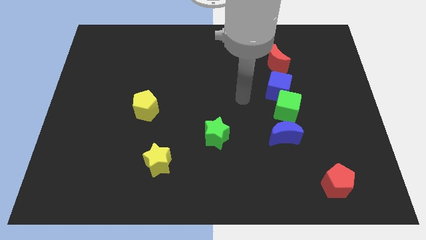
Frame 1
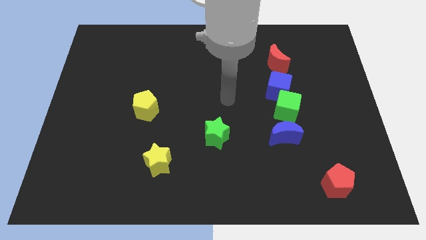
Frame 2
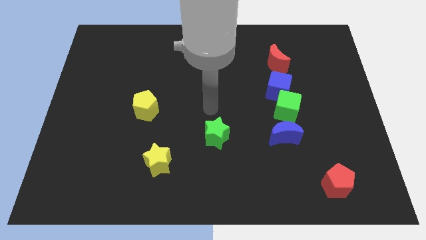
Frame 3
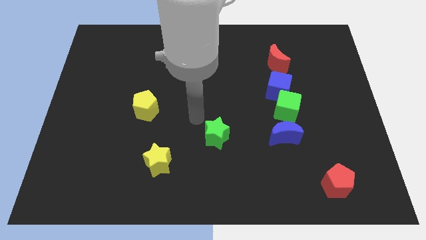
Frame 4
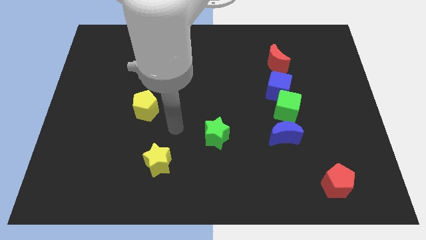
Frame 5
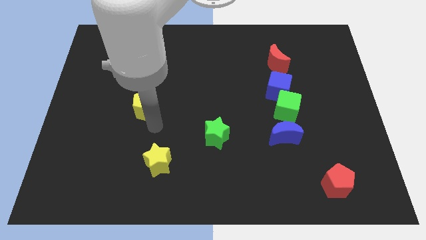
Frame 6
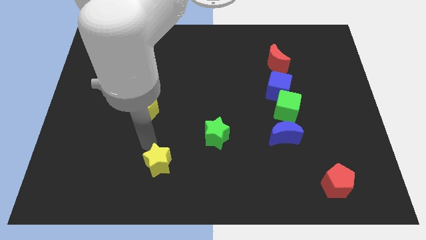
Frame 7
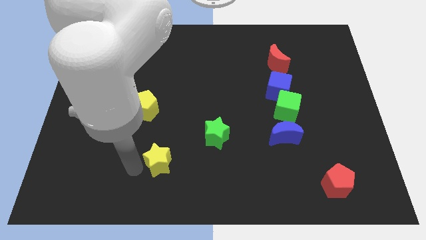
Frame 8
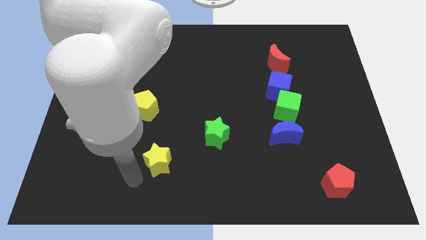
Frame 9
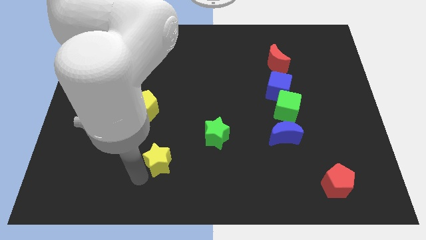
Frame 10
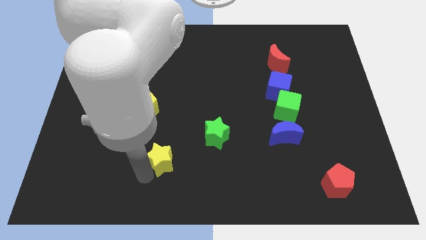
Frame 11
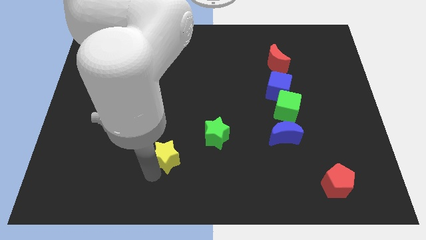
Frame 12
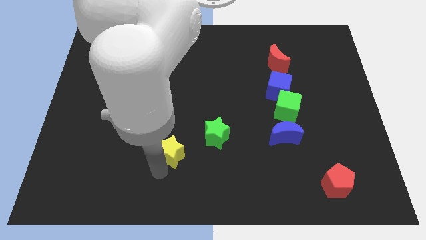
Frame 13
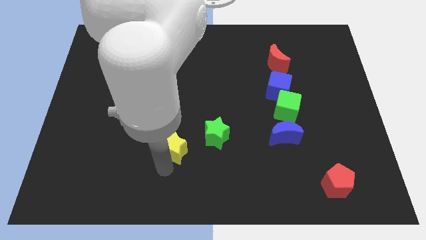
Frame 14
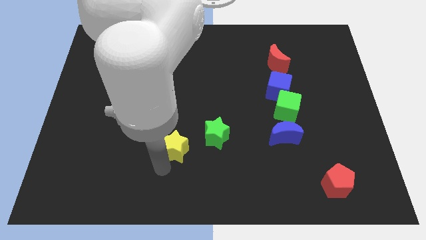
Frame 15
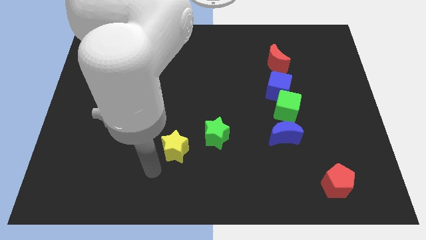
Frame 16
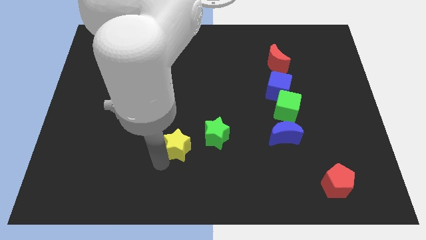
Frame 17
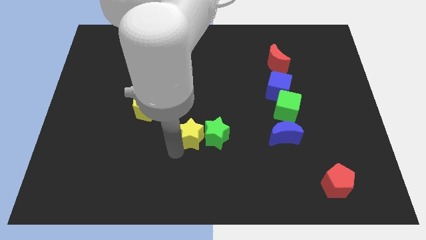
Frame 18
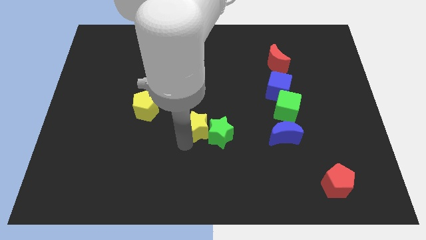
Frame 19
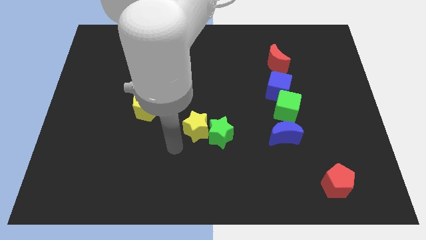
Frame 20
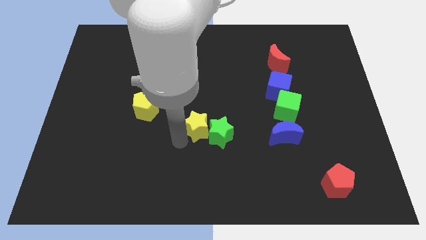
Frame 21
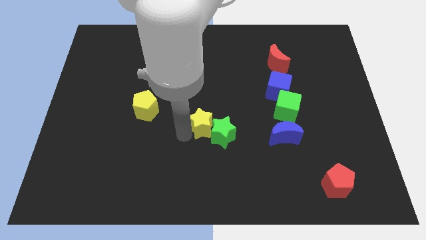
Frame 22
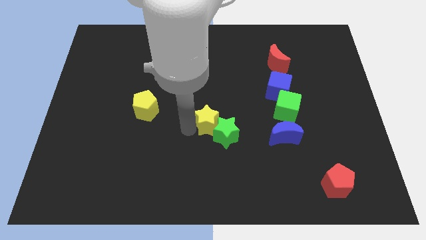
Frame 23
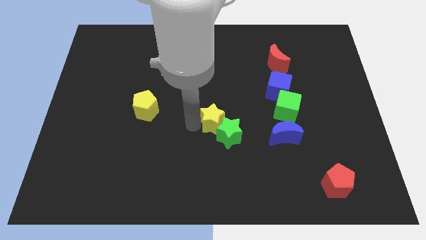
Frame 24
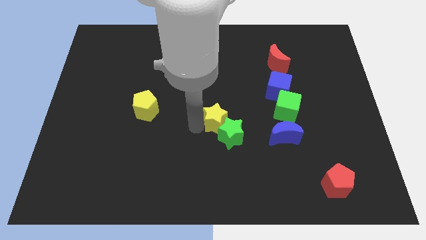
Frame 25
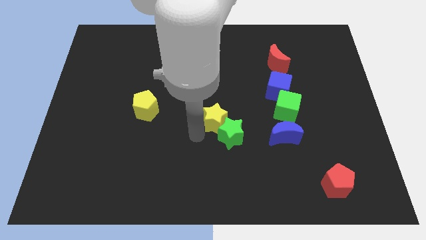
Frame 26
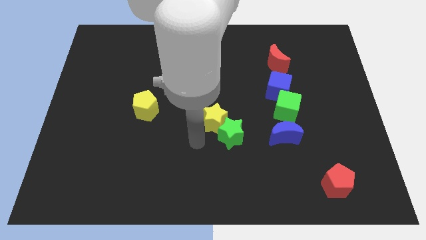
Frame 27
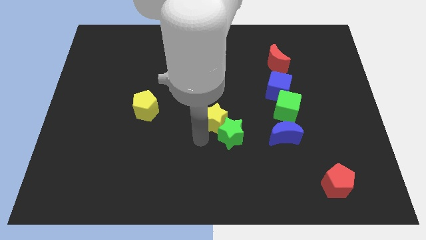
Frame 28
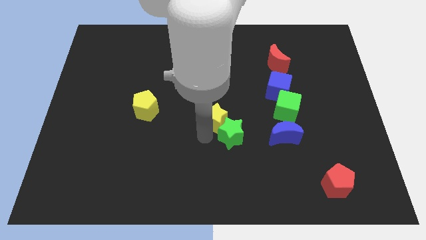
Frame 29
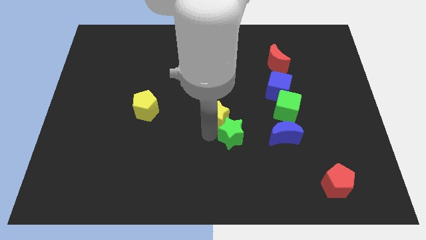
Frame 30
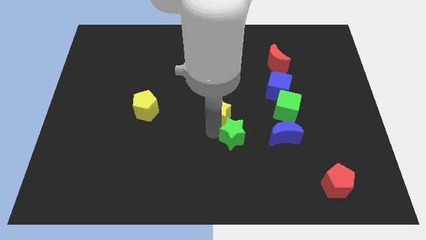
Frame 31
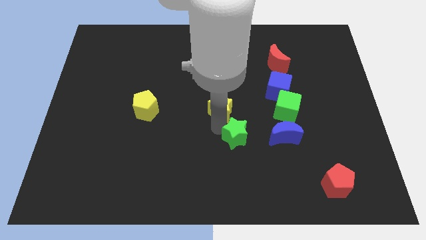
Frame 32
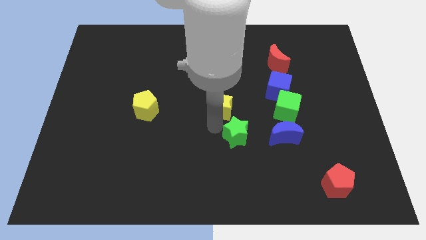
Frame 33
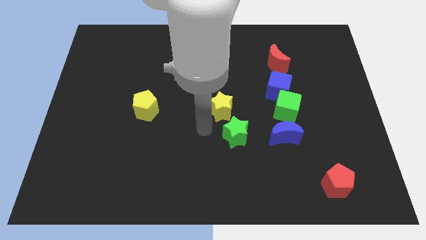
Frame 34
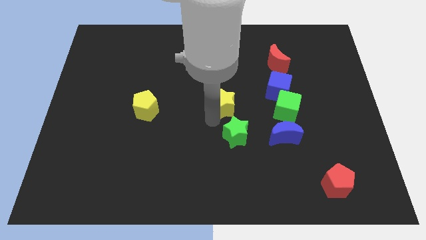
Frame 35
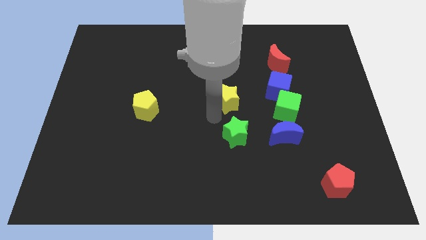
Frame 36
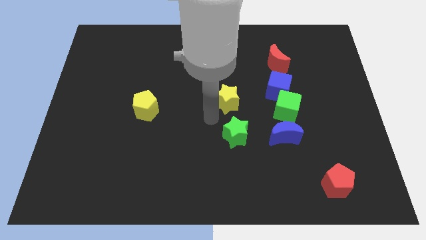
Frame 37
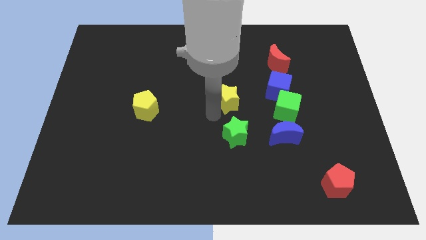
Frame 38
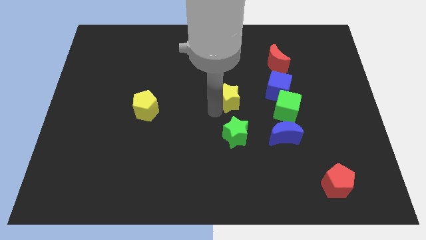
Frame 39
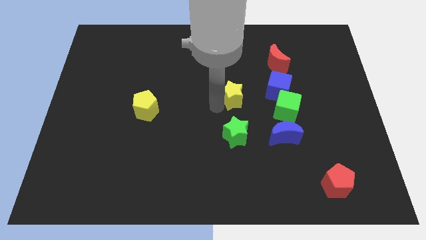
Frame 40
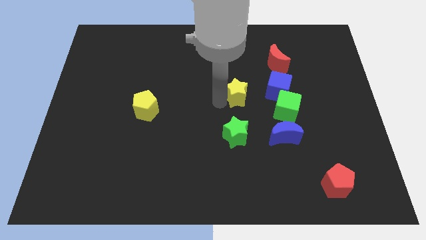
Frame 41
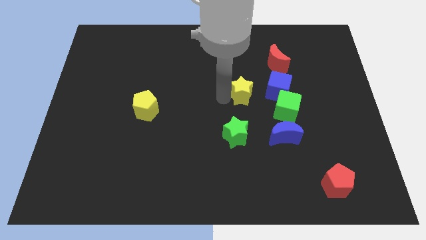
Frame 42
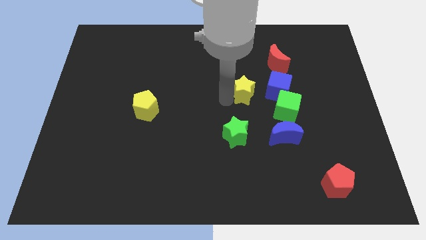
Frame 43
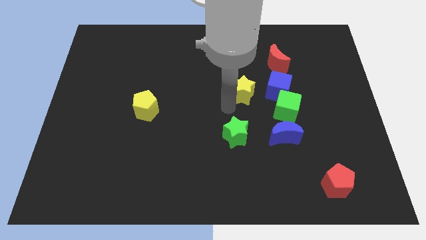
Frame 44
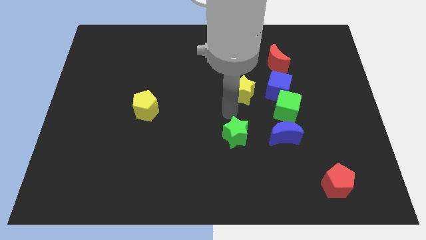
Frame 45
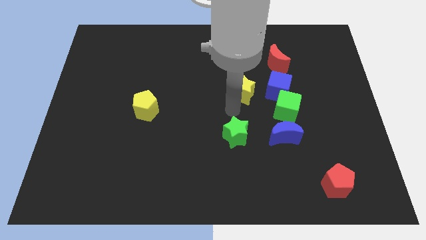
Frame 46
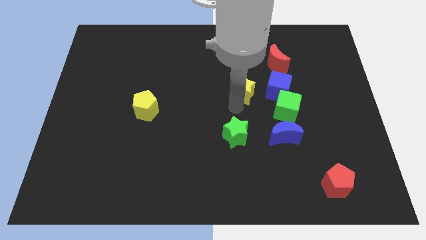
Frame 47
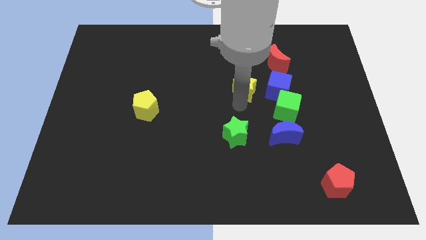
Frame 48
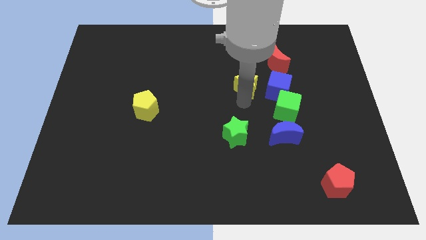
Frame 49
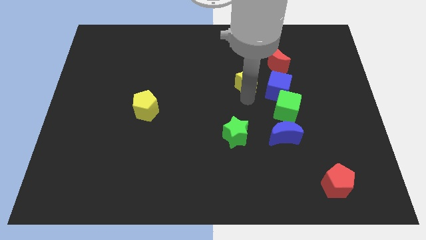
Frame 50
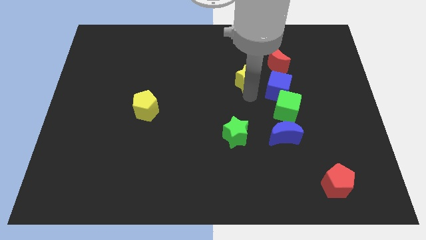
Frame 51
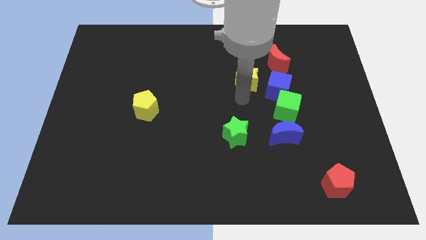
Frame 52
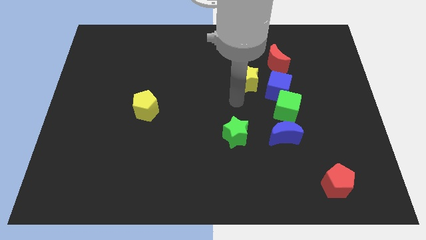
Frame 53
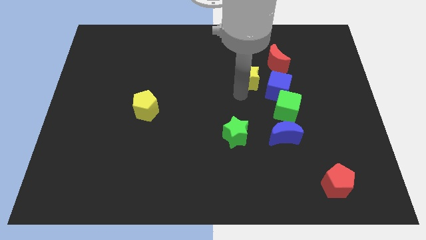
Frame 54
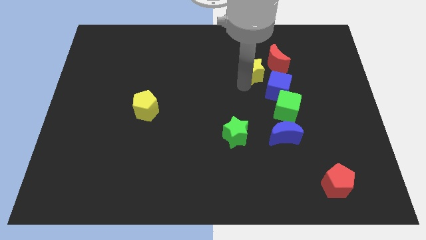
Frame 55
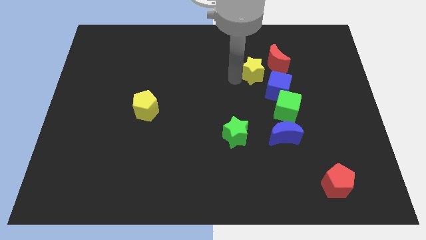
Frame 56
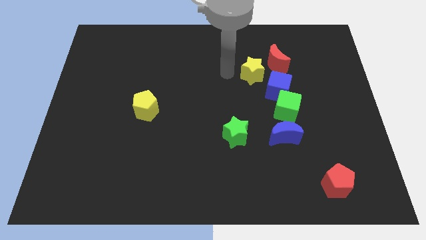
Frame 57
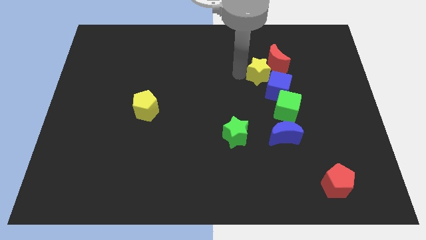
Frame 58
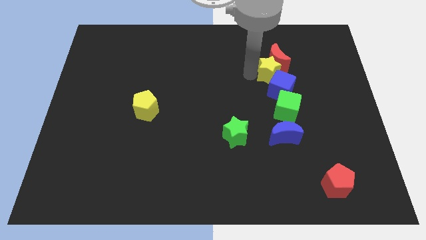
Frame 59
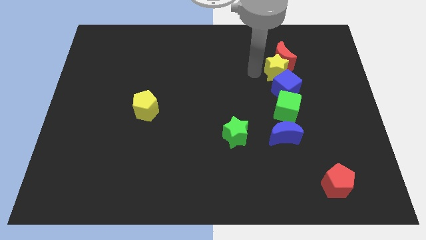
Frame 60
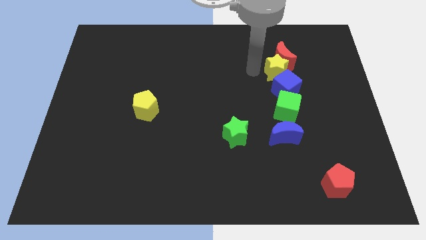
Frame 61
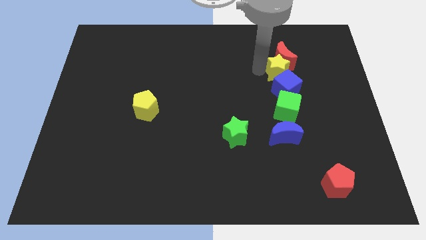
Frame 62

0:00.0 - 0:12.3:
push the yellow star to the top right side of the blue cube

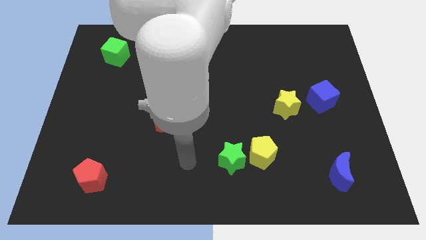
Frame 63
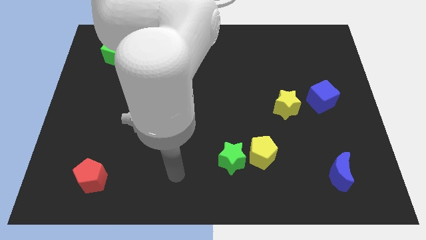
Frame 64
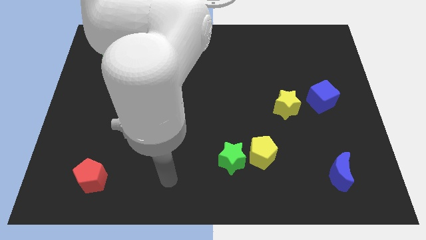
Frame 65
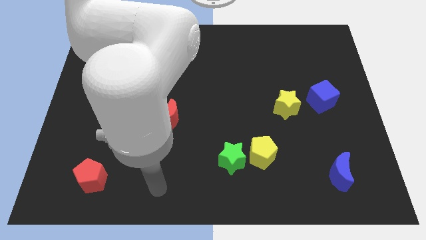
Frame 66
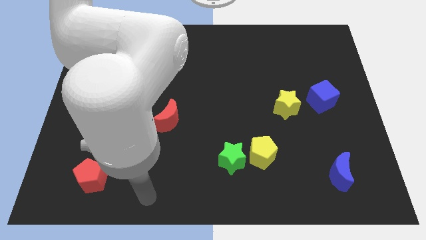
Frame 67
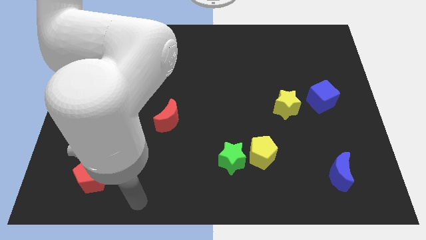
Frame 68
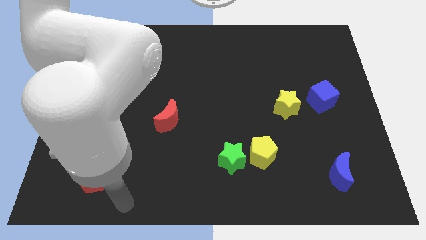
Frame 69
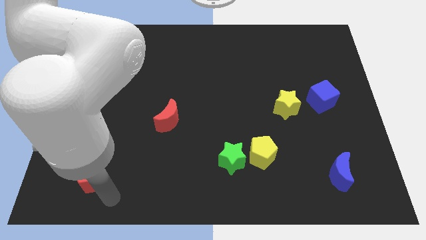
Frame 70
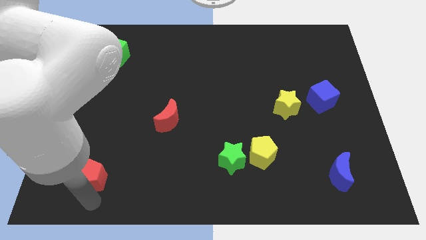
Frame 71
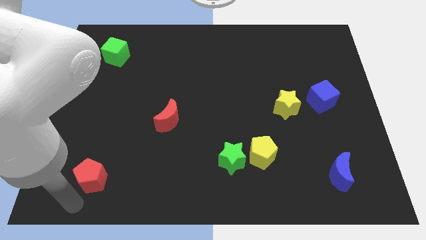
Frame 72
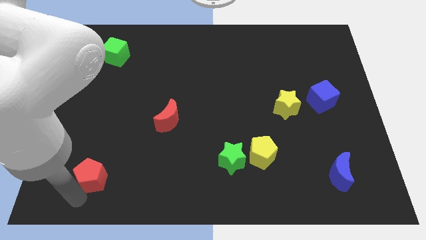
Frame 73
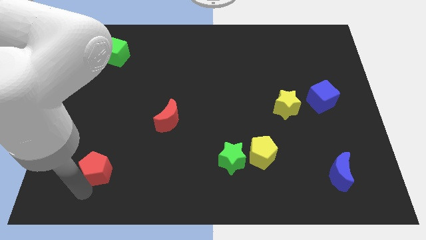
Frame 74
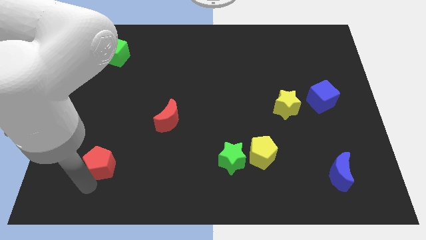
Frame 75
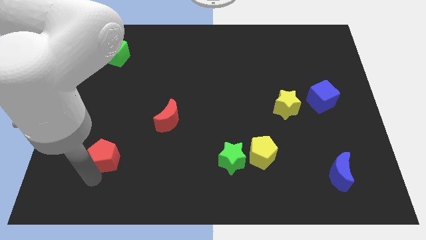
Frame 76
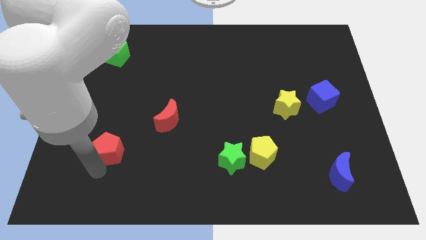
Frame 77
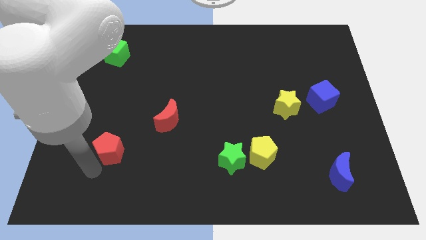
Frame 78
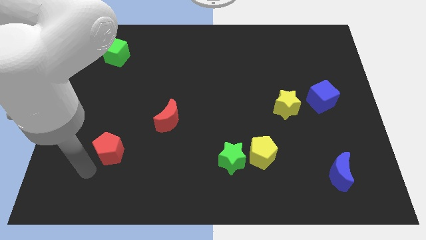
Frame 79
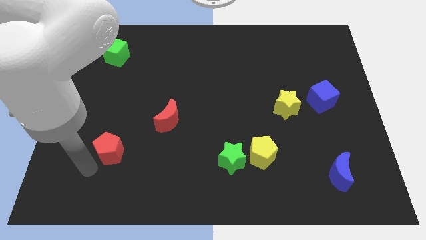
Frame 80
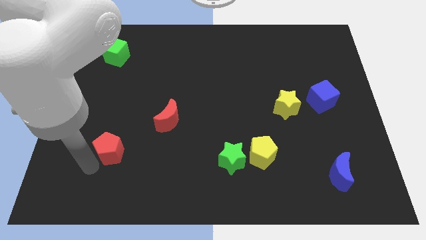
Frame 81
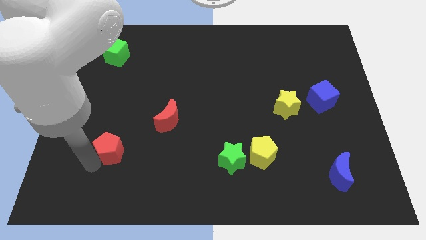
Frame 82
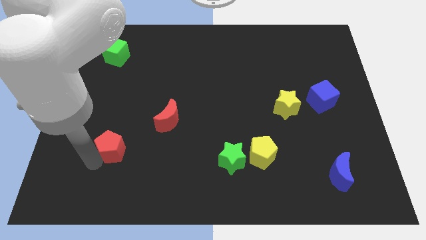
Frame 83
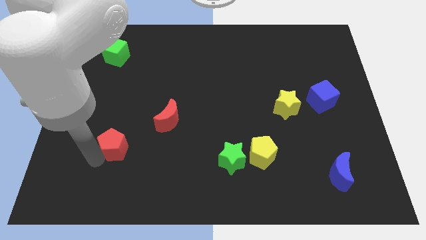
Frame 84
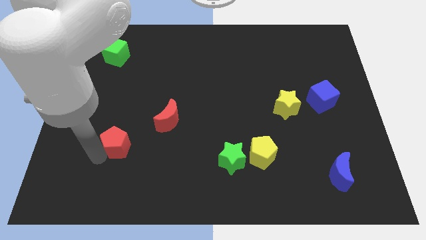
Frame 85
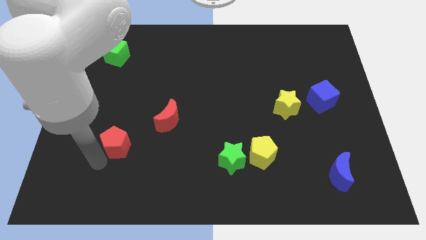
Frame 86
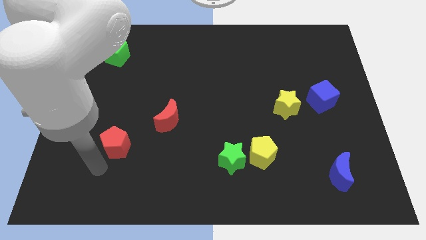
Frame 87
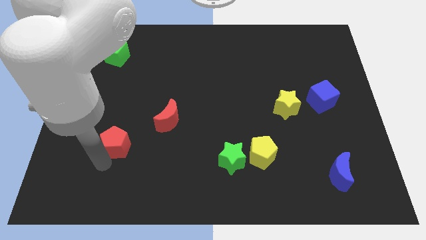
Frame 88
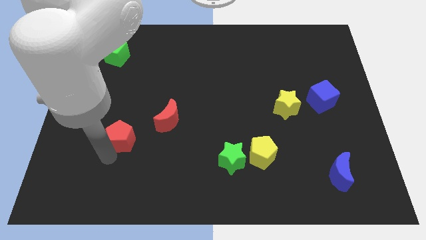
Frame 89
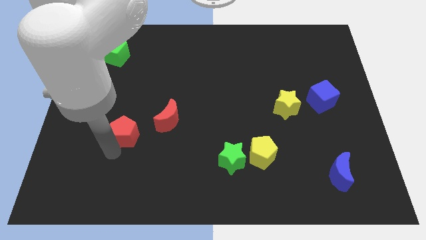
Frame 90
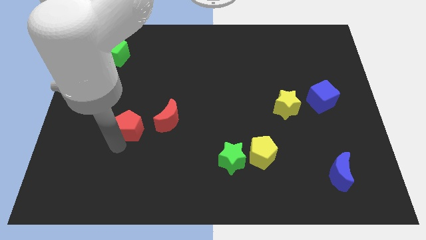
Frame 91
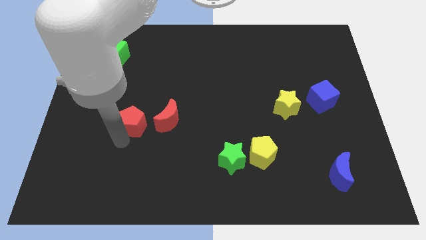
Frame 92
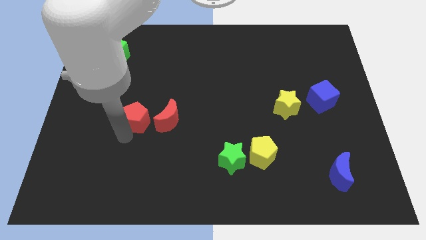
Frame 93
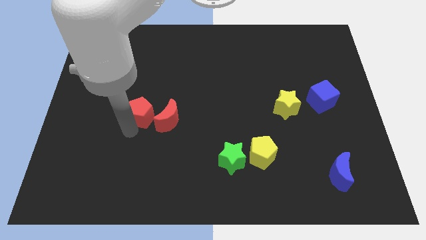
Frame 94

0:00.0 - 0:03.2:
put the red pentagon to the top left side of the red moon
